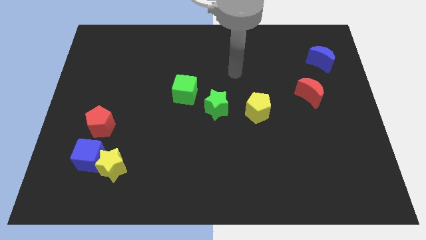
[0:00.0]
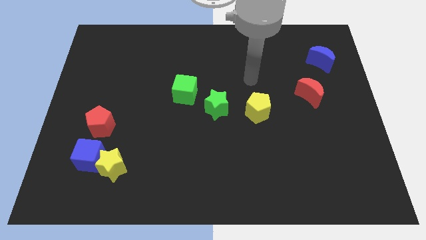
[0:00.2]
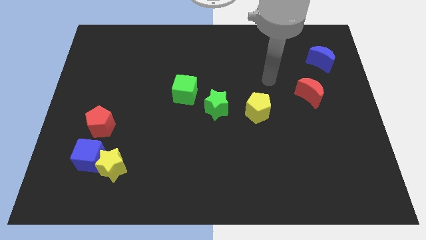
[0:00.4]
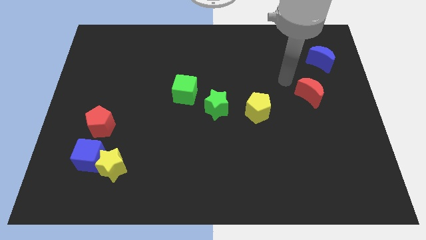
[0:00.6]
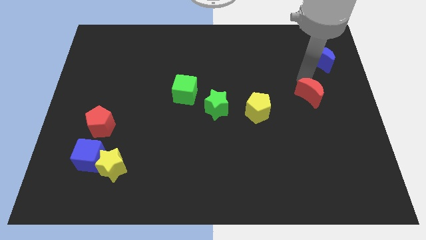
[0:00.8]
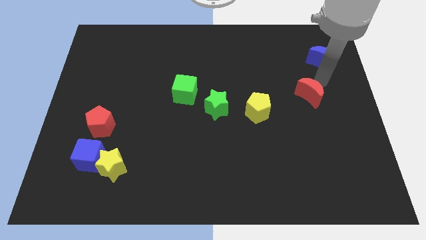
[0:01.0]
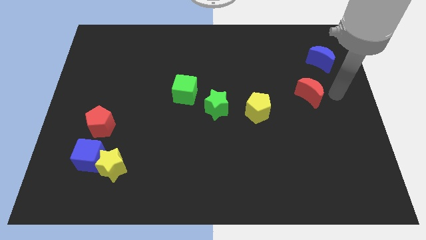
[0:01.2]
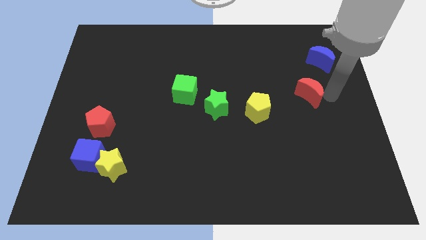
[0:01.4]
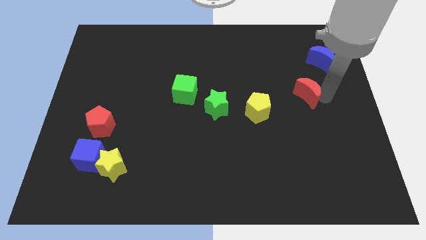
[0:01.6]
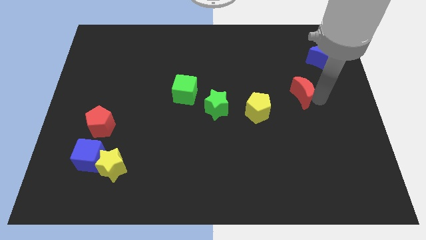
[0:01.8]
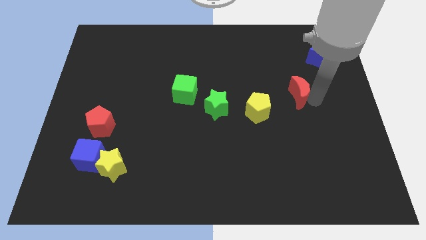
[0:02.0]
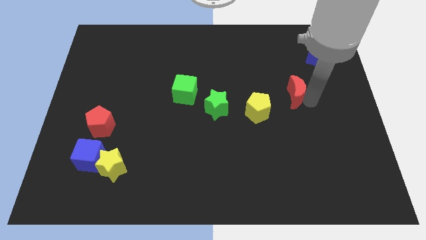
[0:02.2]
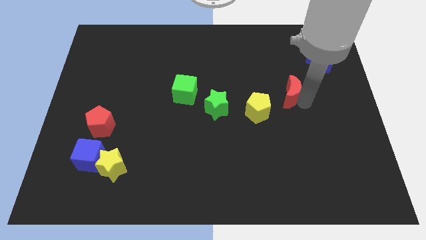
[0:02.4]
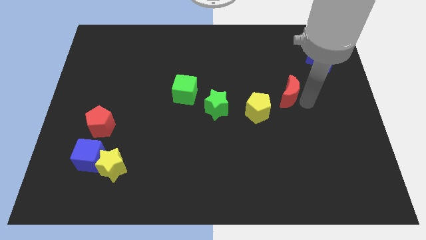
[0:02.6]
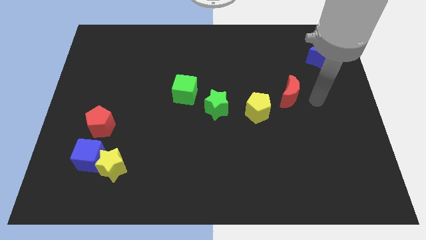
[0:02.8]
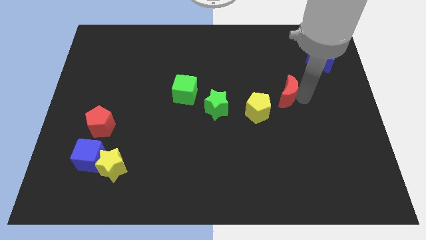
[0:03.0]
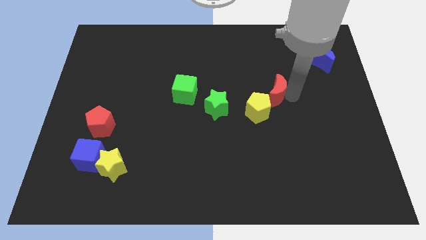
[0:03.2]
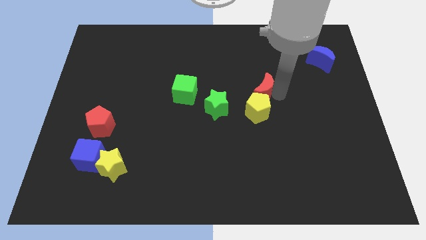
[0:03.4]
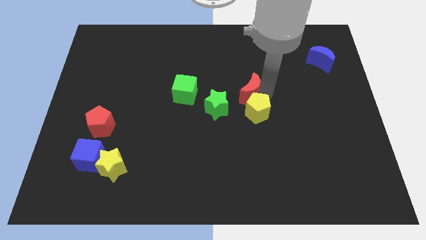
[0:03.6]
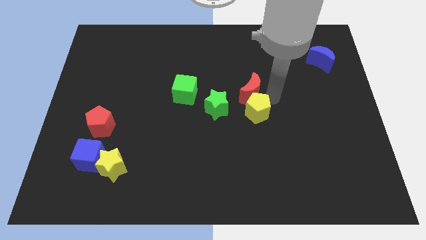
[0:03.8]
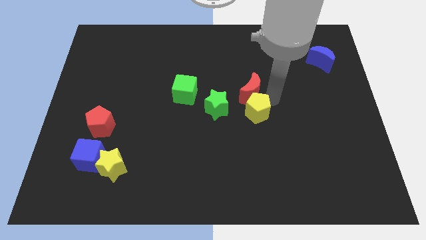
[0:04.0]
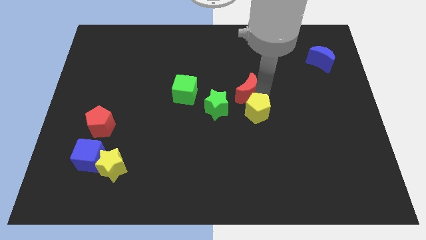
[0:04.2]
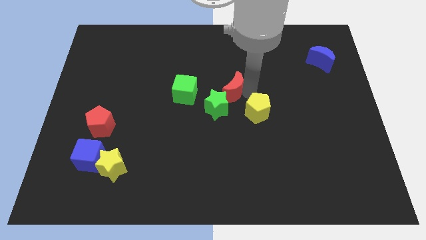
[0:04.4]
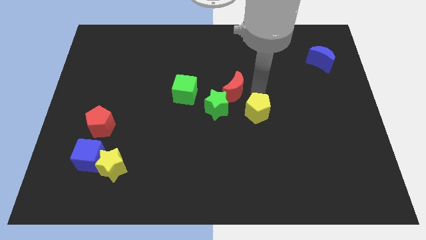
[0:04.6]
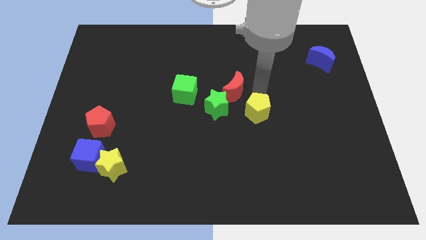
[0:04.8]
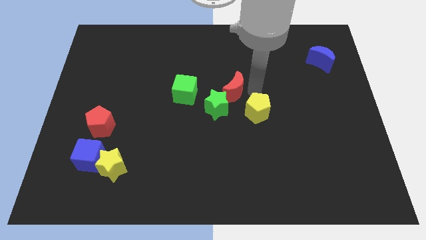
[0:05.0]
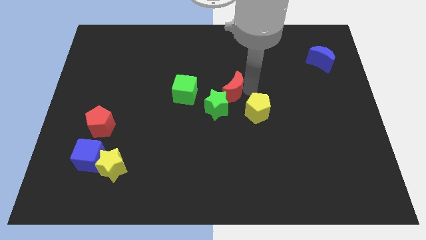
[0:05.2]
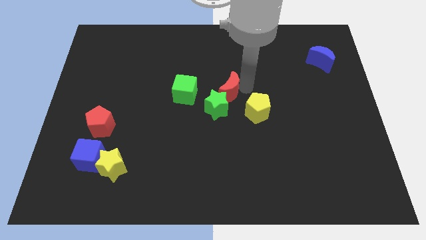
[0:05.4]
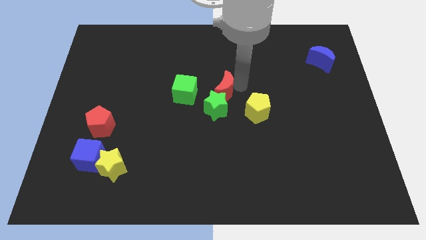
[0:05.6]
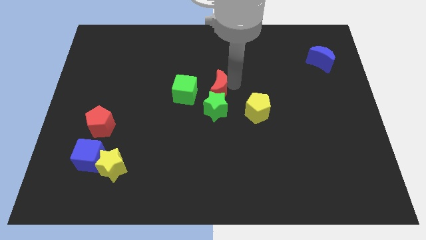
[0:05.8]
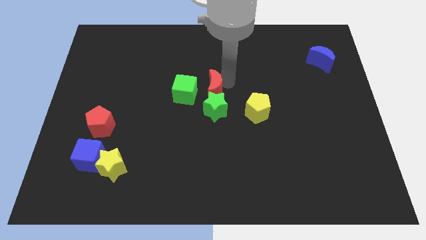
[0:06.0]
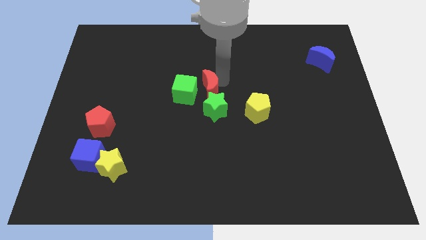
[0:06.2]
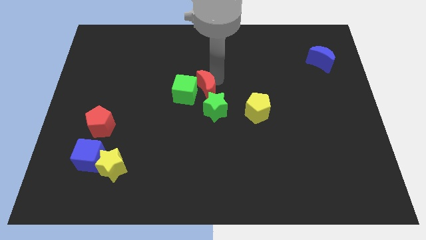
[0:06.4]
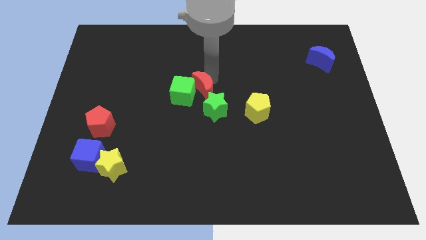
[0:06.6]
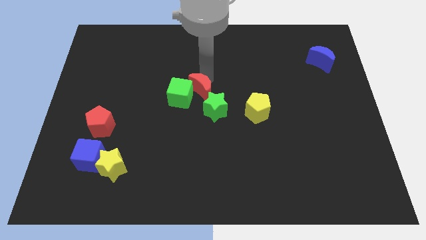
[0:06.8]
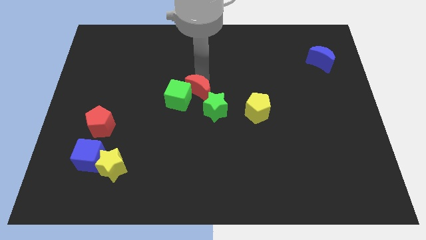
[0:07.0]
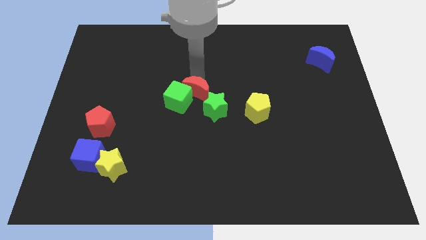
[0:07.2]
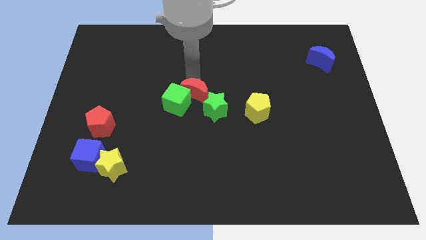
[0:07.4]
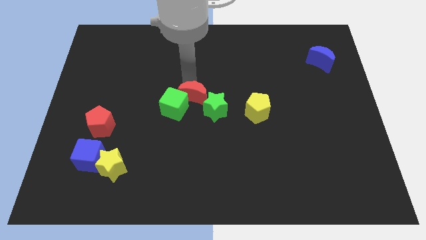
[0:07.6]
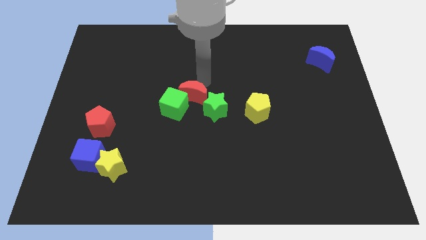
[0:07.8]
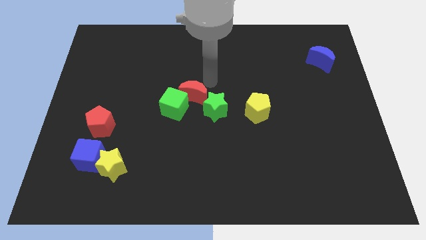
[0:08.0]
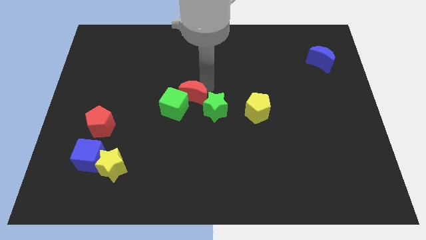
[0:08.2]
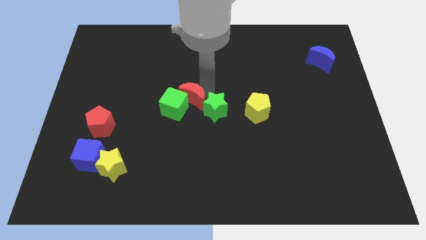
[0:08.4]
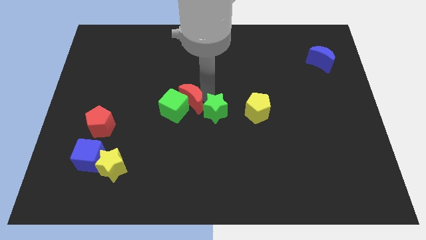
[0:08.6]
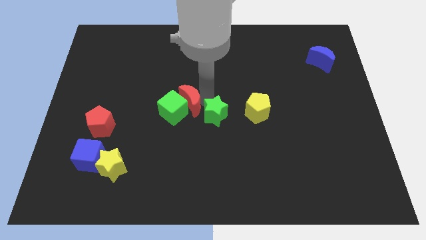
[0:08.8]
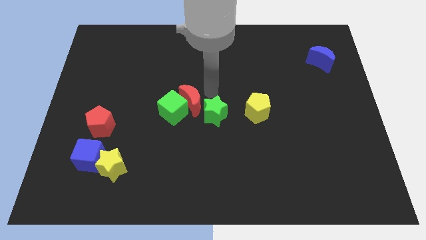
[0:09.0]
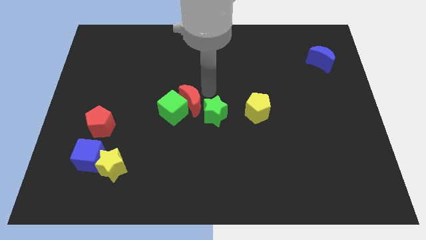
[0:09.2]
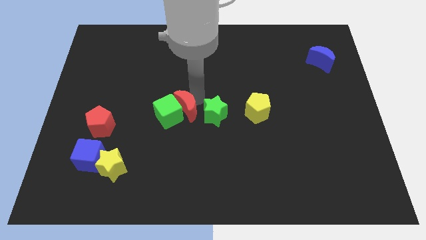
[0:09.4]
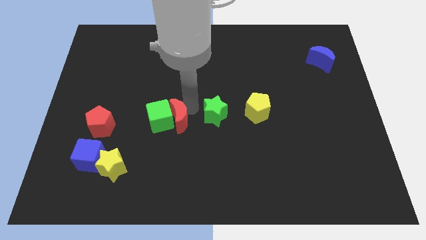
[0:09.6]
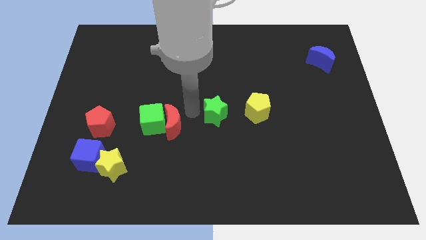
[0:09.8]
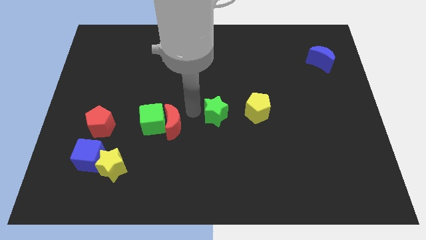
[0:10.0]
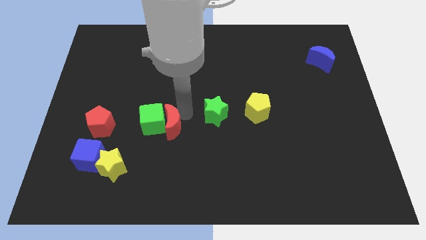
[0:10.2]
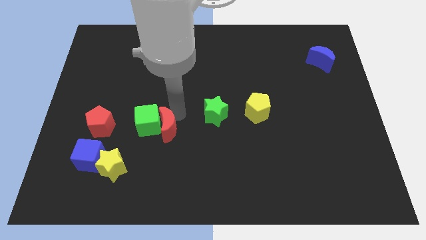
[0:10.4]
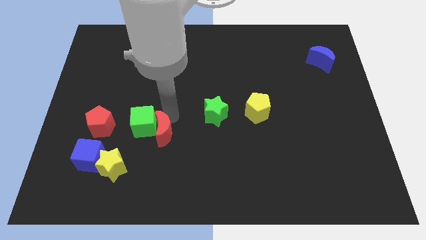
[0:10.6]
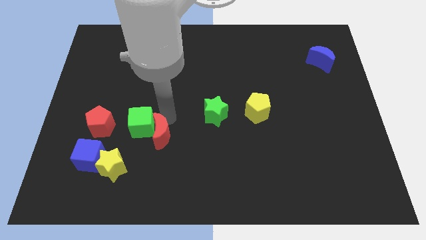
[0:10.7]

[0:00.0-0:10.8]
move the red moon to the top right side of the yellow star

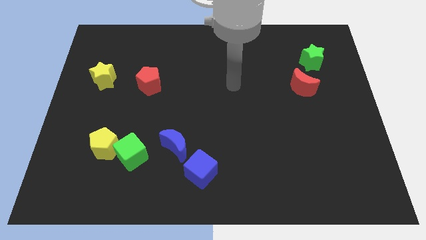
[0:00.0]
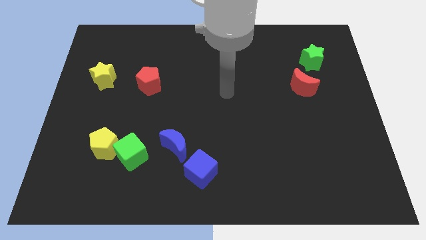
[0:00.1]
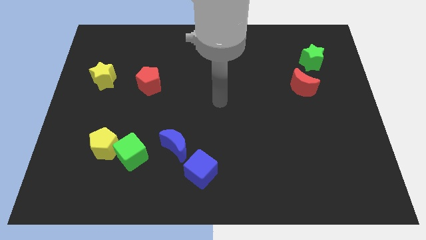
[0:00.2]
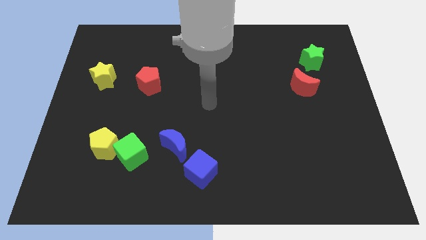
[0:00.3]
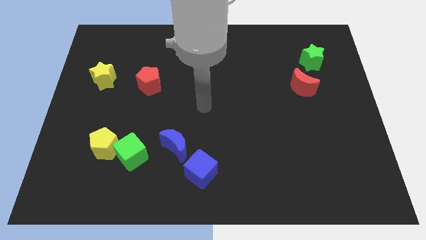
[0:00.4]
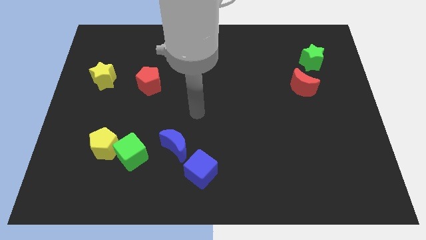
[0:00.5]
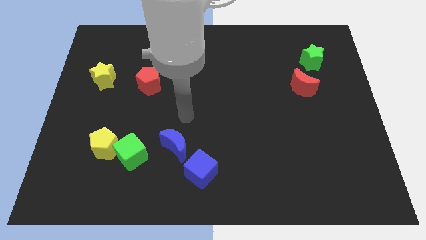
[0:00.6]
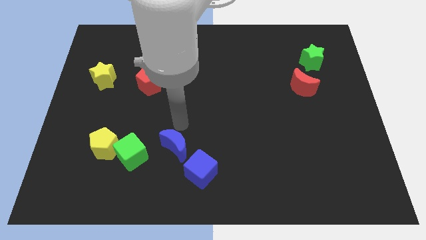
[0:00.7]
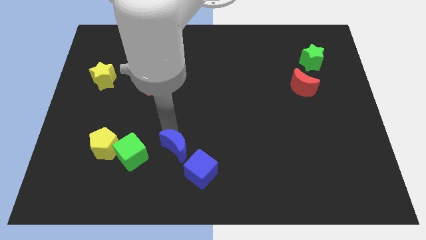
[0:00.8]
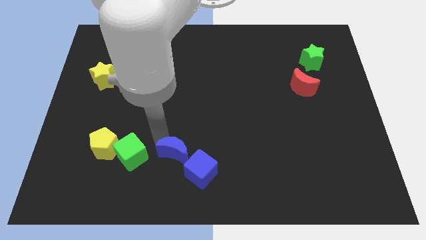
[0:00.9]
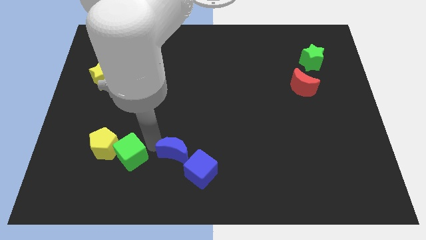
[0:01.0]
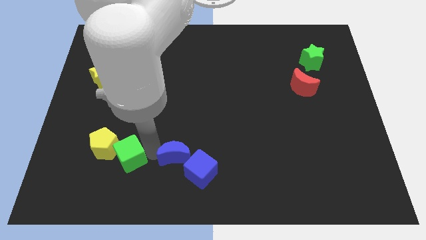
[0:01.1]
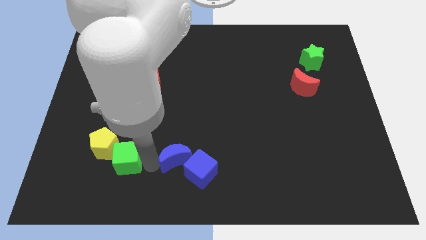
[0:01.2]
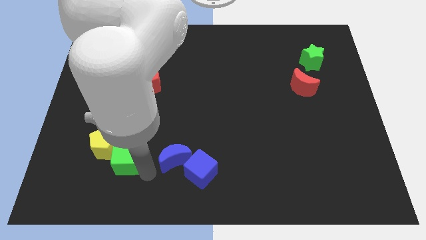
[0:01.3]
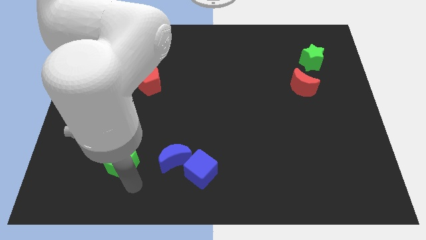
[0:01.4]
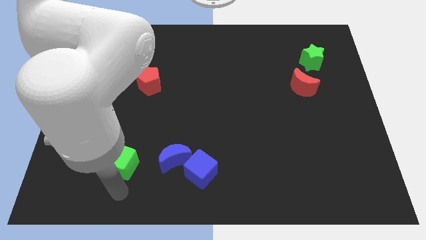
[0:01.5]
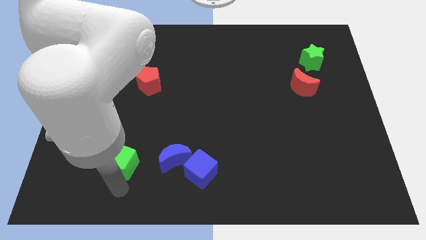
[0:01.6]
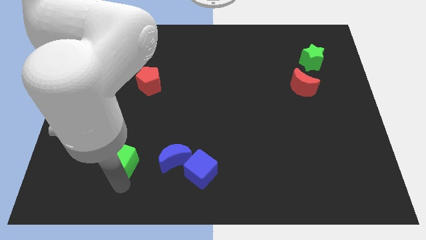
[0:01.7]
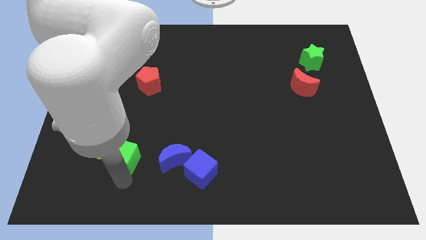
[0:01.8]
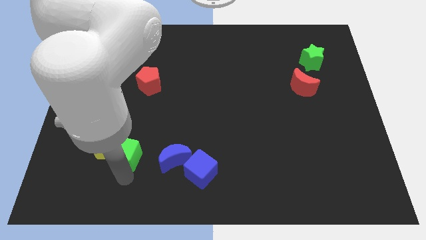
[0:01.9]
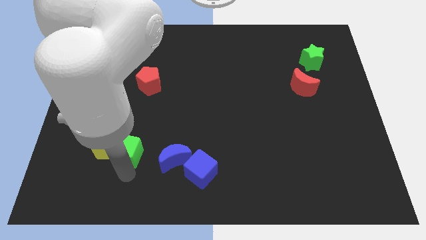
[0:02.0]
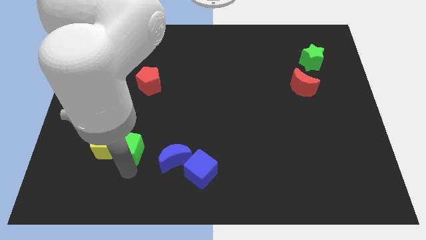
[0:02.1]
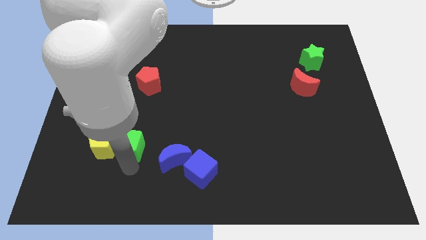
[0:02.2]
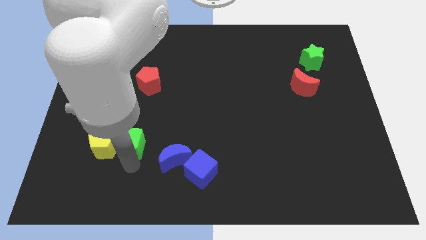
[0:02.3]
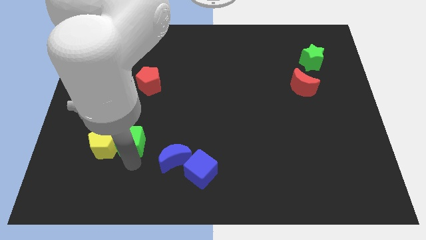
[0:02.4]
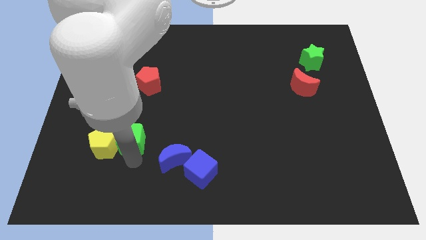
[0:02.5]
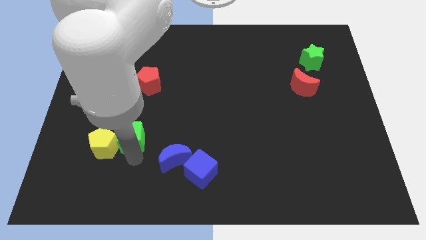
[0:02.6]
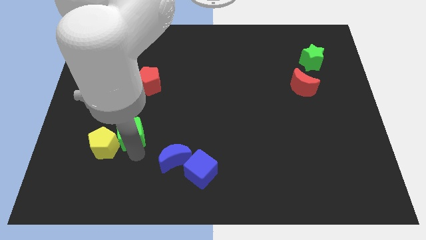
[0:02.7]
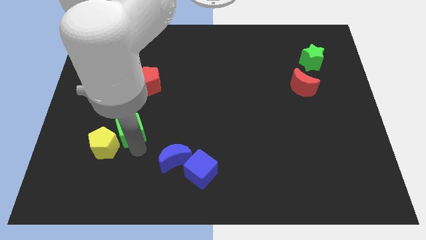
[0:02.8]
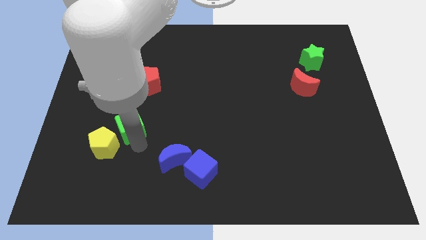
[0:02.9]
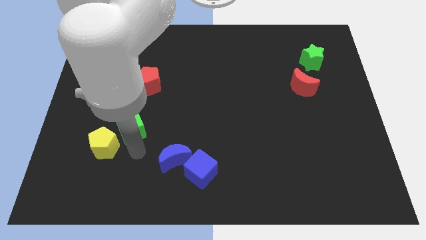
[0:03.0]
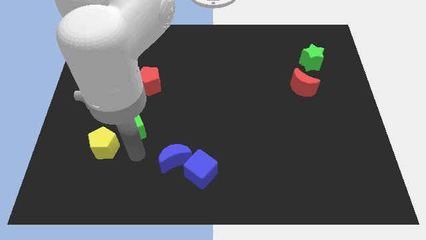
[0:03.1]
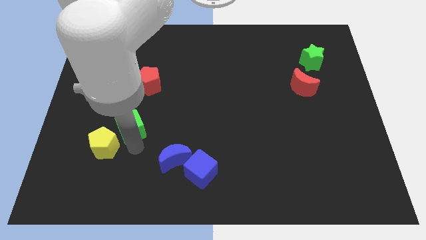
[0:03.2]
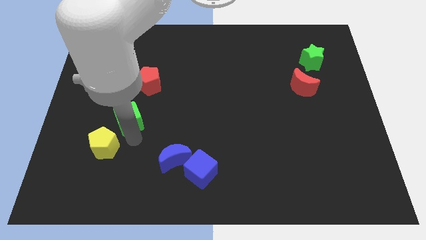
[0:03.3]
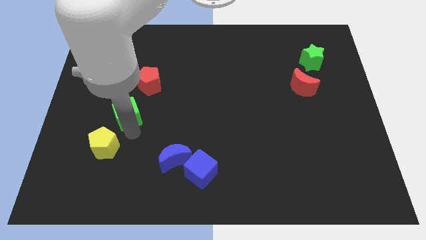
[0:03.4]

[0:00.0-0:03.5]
move the green cube to the bottom left of the red pentagon
